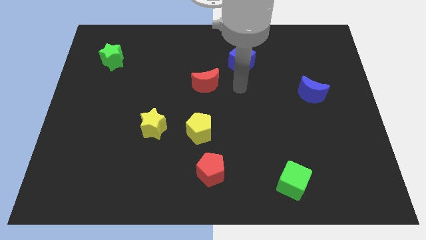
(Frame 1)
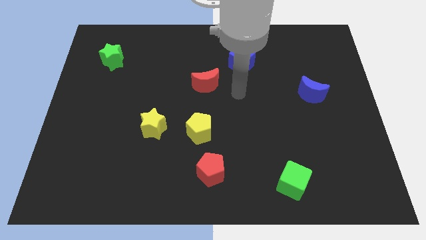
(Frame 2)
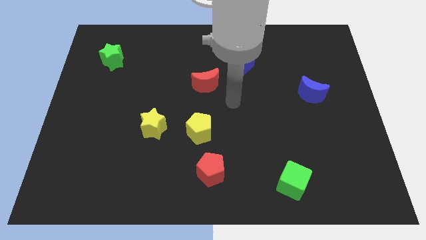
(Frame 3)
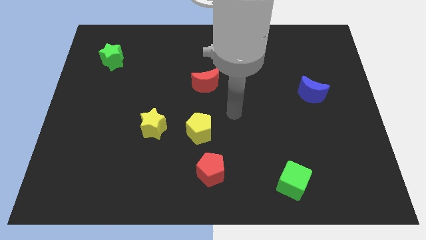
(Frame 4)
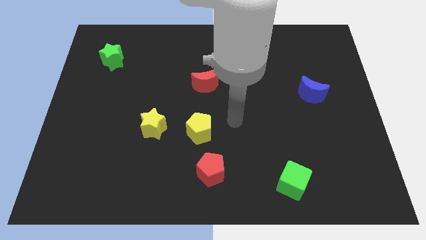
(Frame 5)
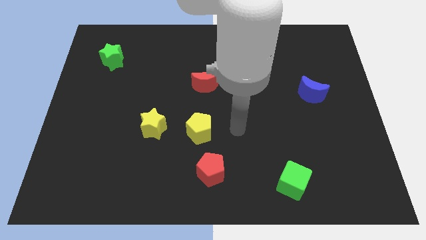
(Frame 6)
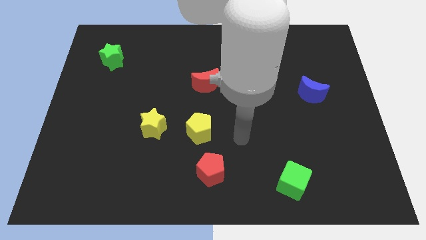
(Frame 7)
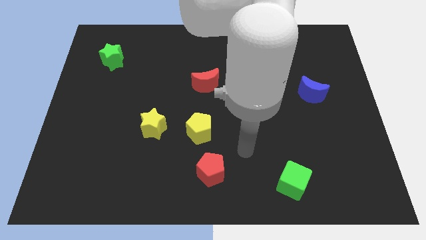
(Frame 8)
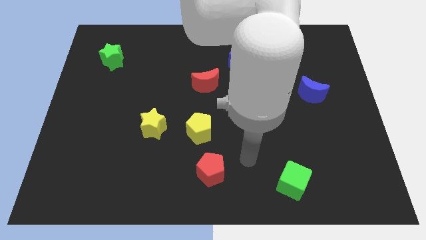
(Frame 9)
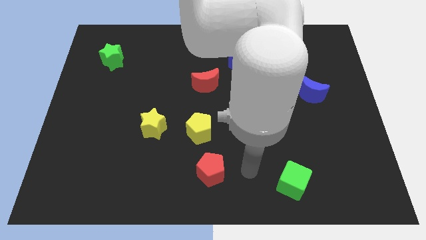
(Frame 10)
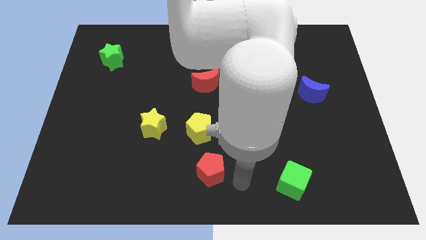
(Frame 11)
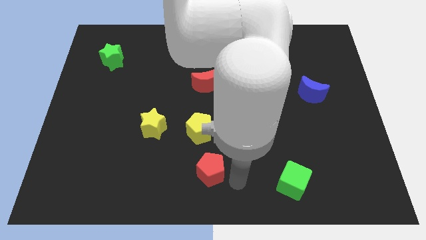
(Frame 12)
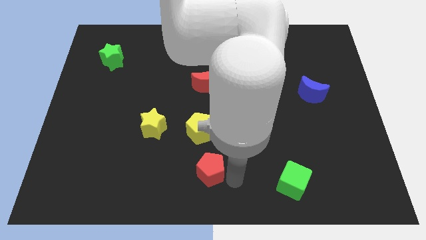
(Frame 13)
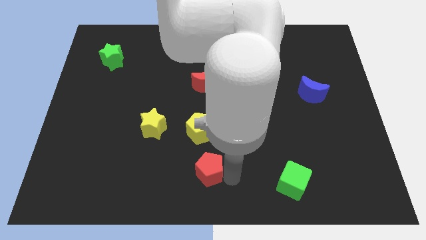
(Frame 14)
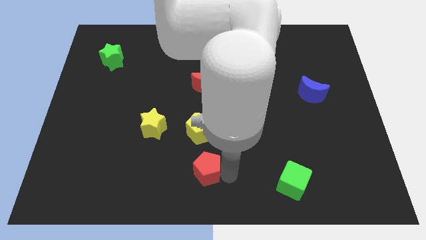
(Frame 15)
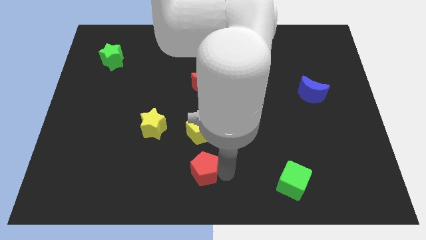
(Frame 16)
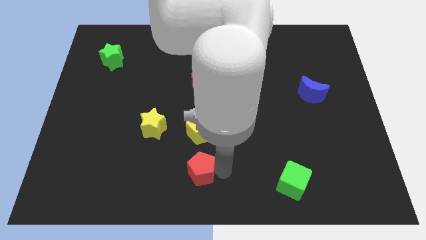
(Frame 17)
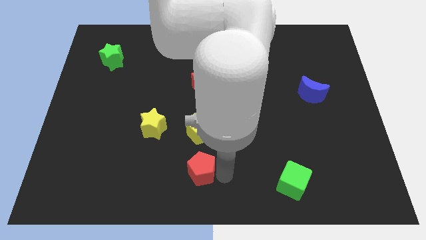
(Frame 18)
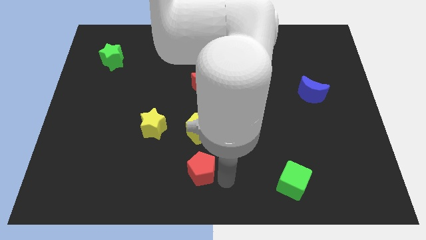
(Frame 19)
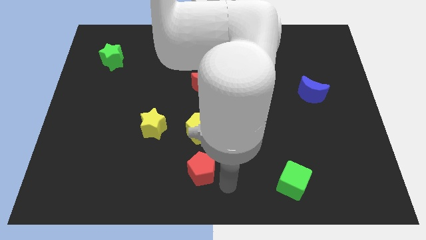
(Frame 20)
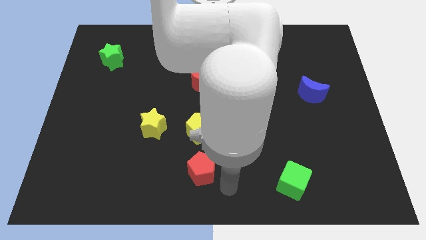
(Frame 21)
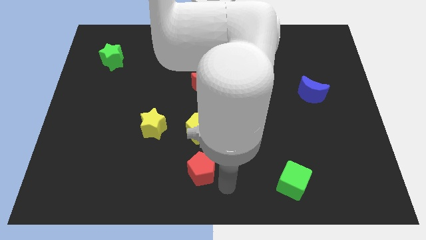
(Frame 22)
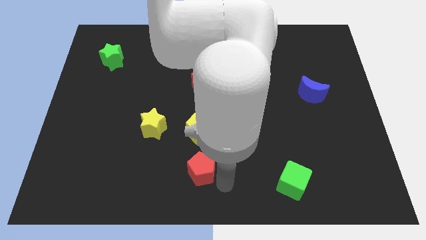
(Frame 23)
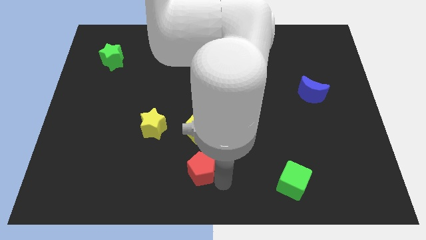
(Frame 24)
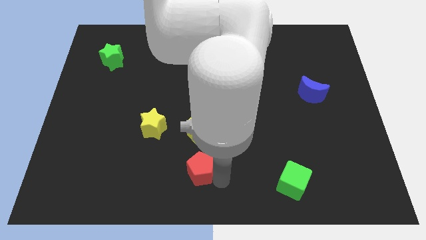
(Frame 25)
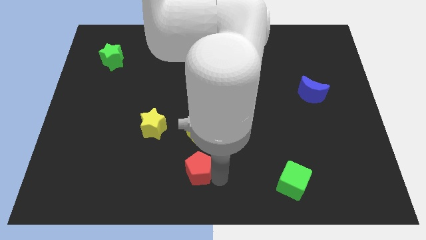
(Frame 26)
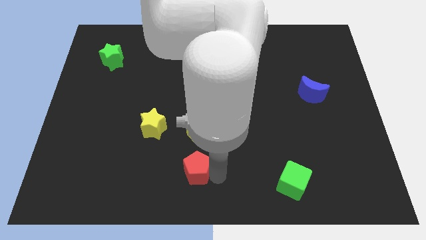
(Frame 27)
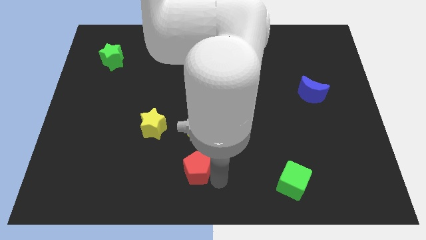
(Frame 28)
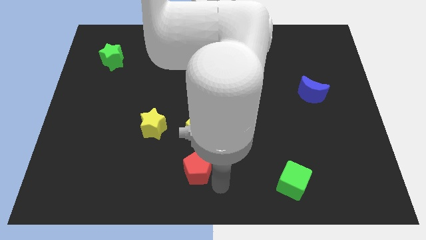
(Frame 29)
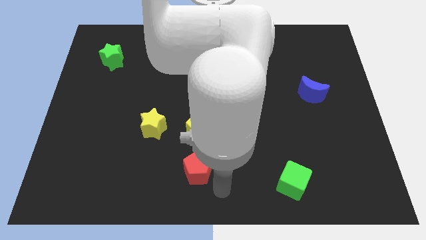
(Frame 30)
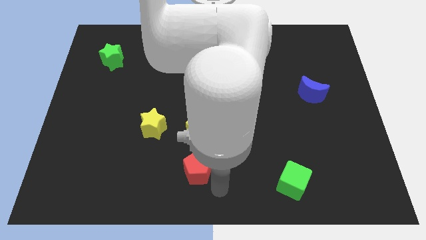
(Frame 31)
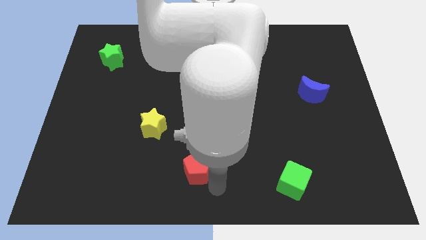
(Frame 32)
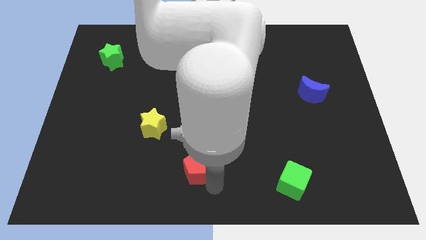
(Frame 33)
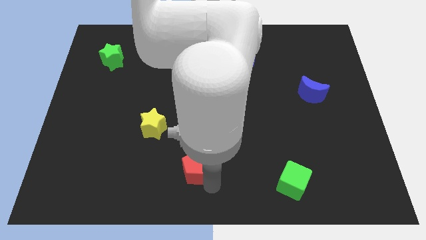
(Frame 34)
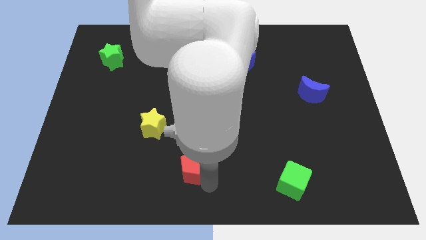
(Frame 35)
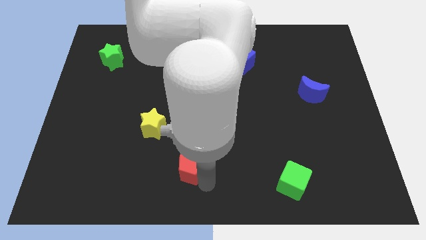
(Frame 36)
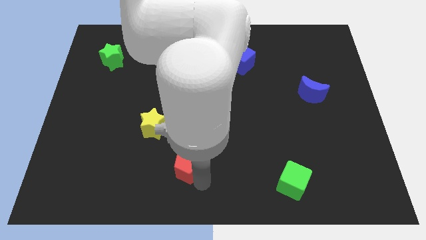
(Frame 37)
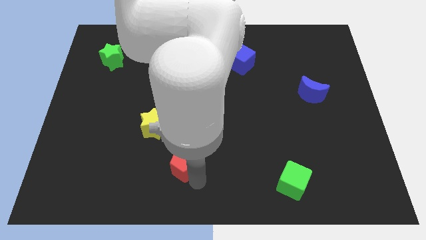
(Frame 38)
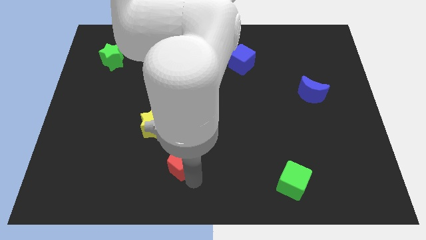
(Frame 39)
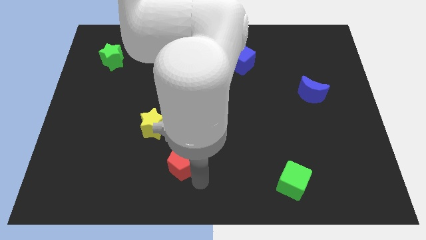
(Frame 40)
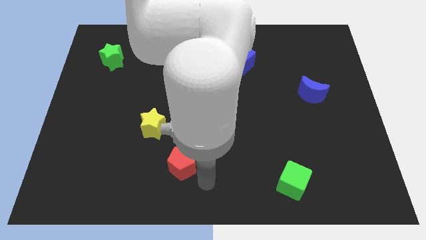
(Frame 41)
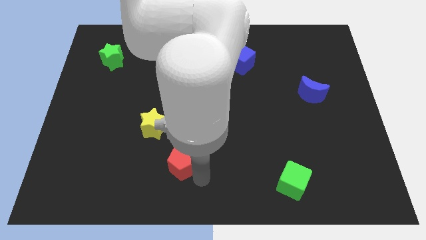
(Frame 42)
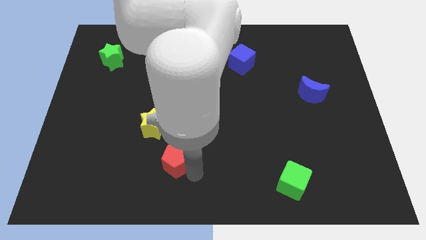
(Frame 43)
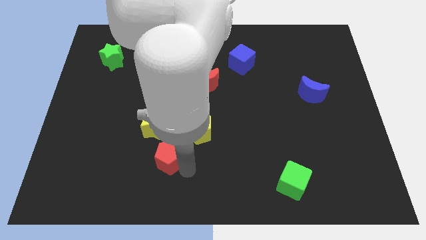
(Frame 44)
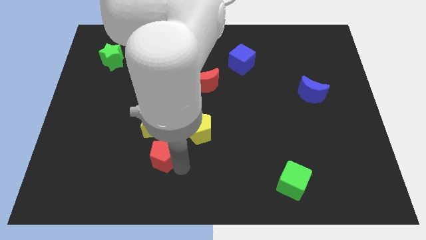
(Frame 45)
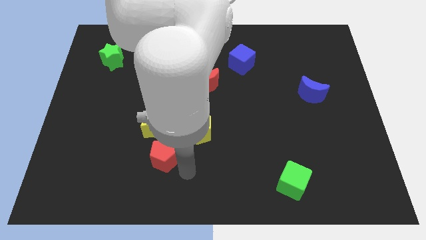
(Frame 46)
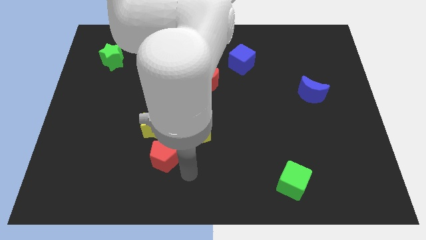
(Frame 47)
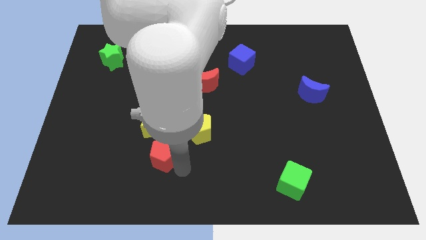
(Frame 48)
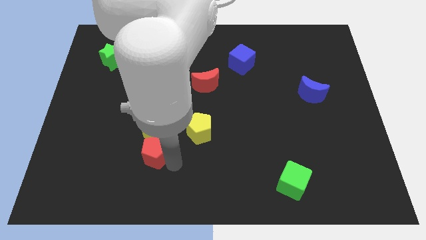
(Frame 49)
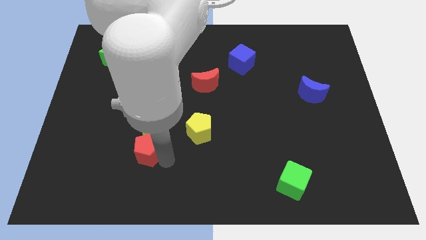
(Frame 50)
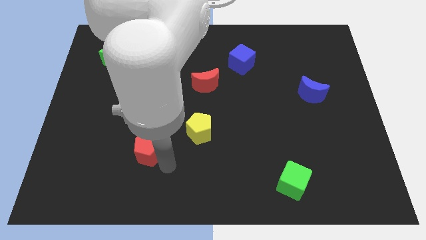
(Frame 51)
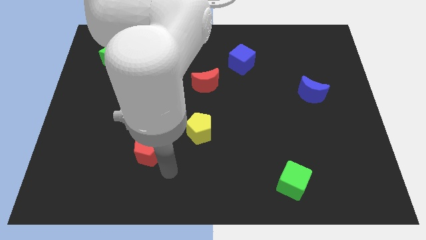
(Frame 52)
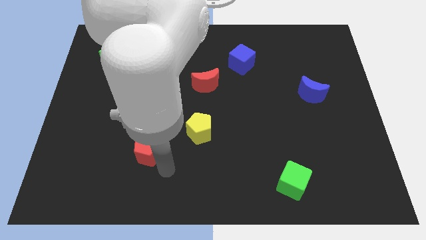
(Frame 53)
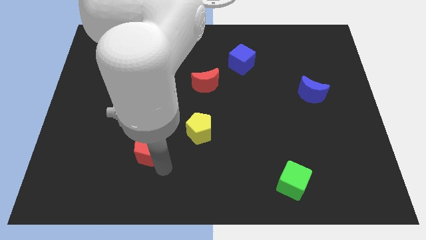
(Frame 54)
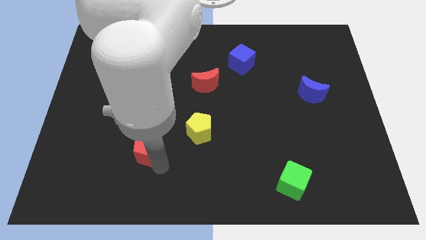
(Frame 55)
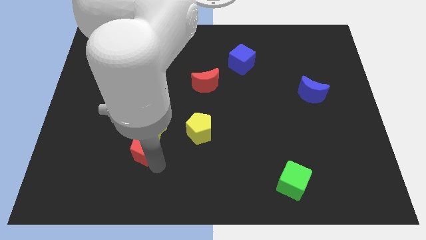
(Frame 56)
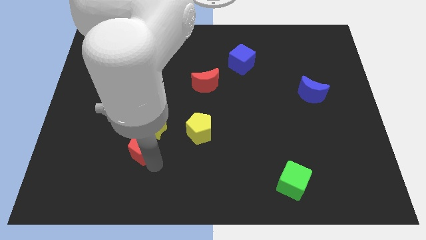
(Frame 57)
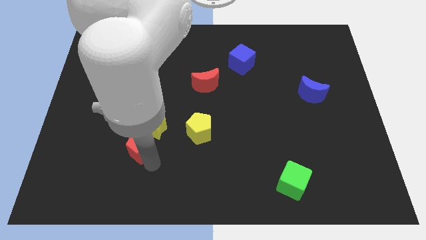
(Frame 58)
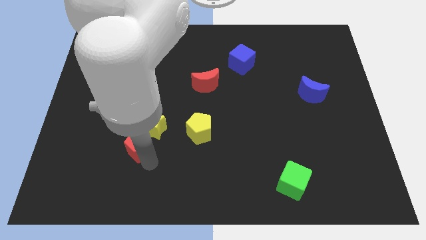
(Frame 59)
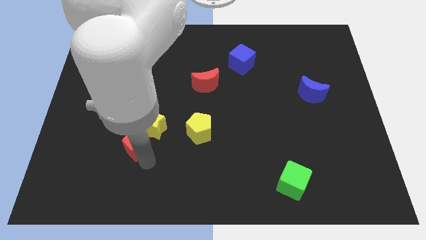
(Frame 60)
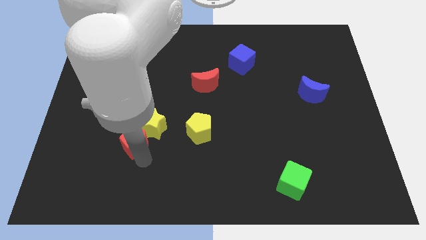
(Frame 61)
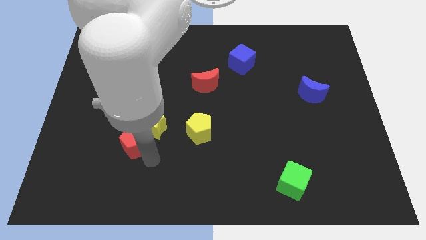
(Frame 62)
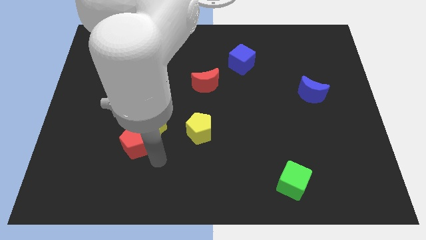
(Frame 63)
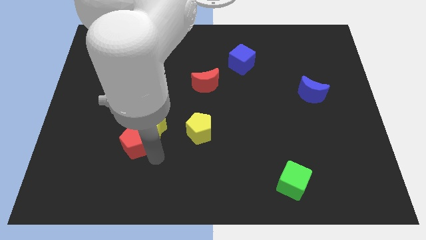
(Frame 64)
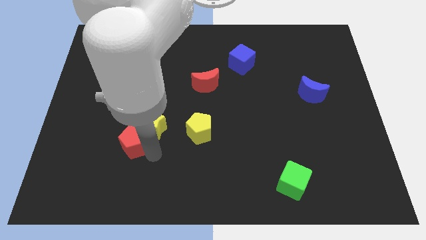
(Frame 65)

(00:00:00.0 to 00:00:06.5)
slide the red pentagon to the left of the yellow star
